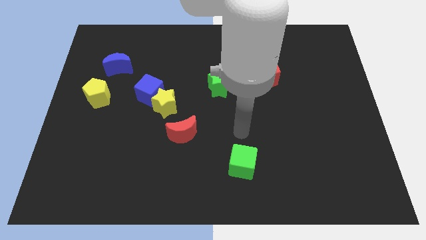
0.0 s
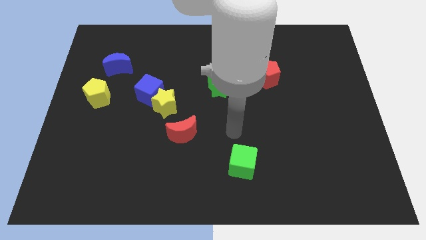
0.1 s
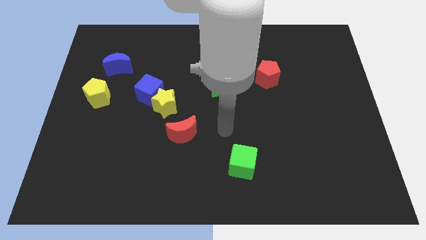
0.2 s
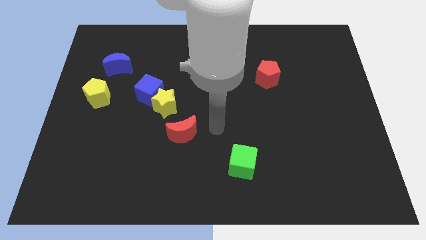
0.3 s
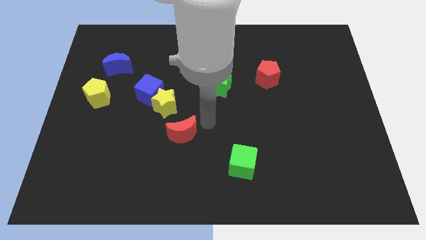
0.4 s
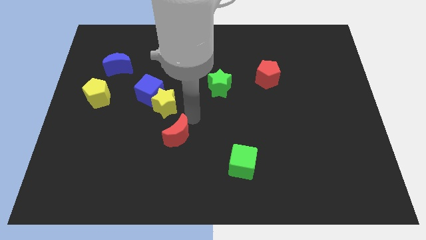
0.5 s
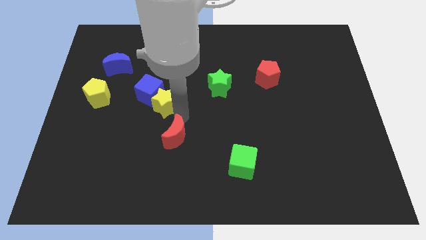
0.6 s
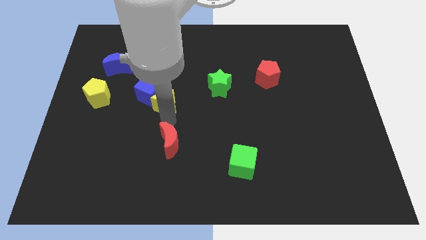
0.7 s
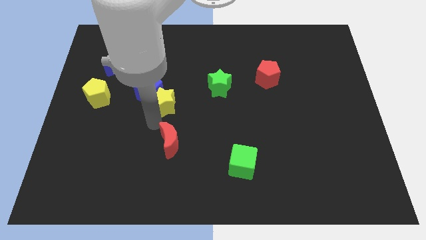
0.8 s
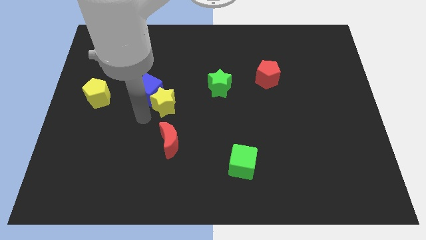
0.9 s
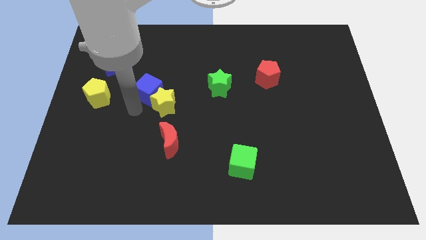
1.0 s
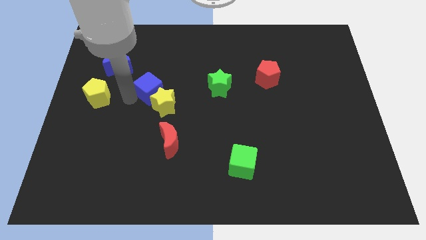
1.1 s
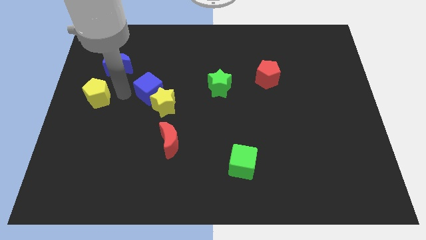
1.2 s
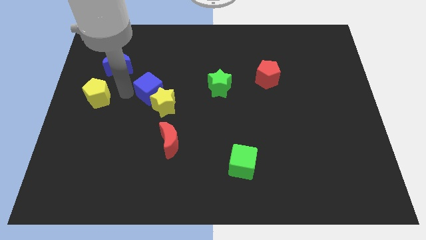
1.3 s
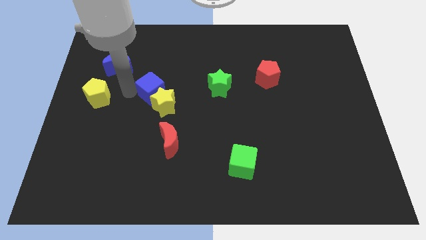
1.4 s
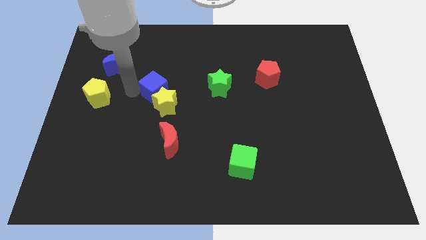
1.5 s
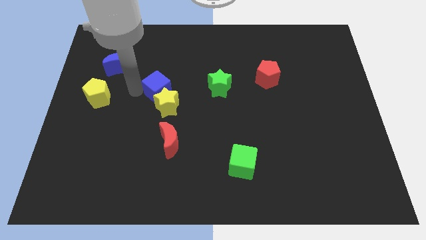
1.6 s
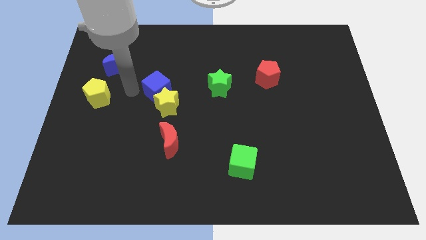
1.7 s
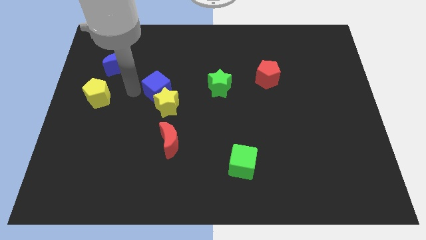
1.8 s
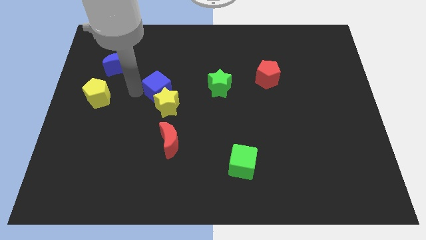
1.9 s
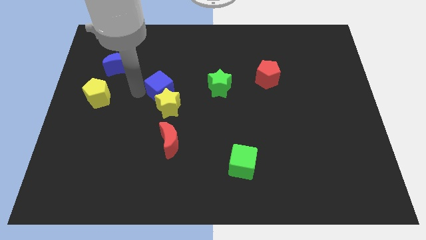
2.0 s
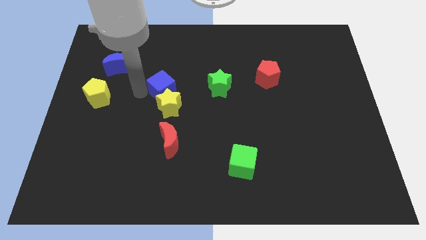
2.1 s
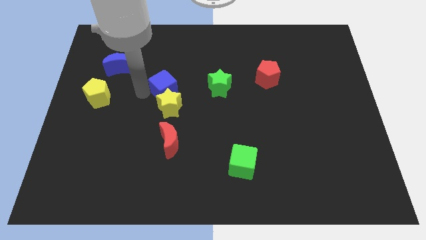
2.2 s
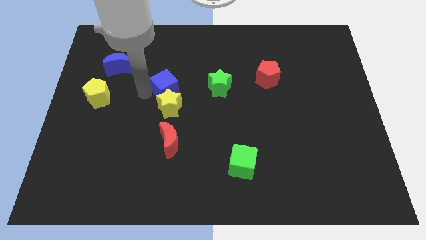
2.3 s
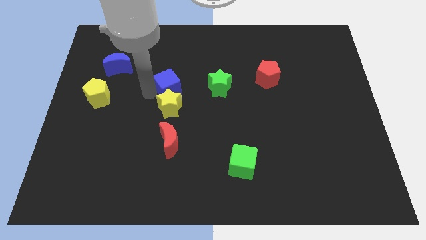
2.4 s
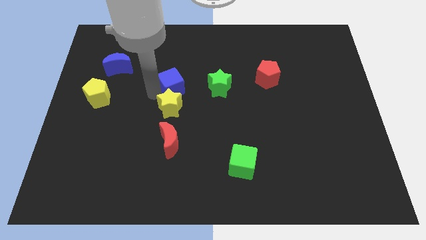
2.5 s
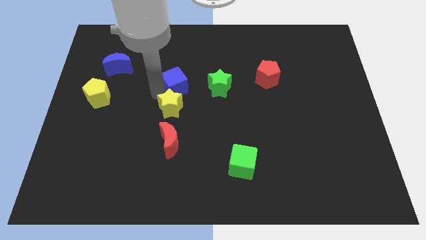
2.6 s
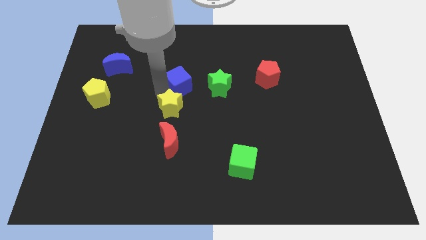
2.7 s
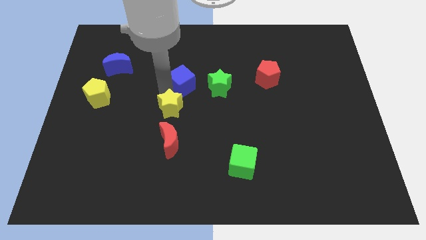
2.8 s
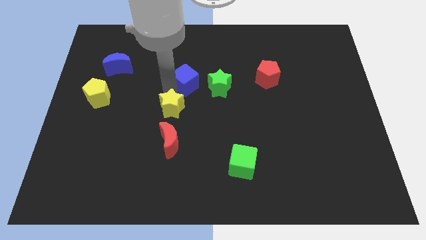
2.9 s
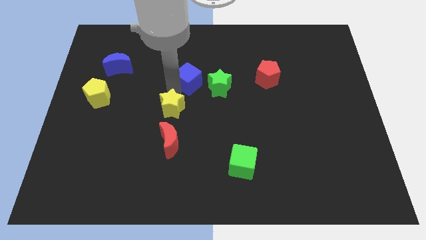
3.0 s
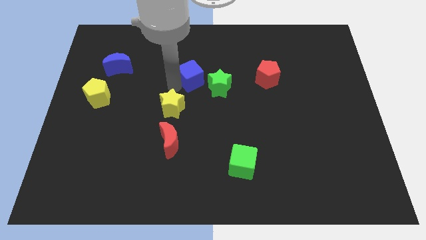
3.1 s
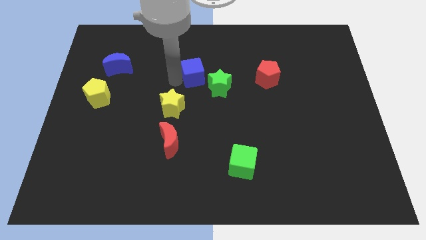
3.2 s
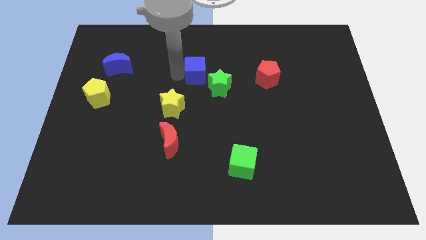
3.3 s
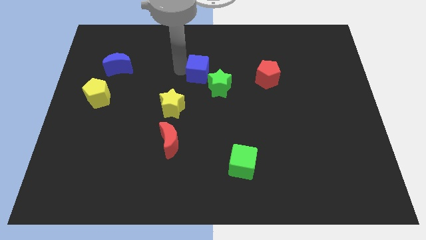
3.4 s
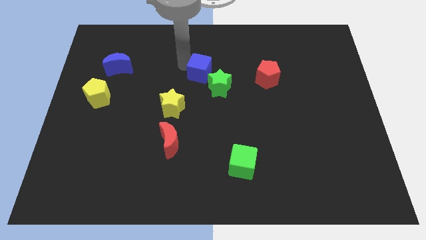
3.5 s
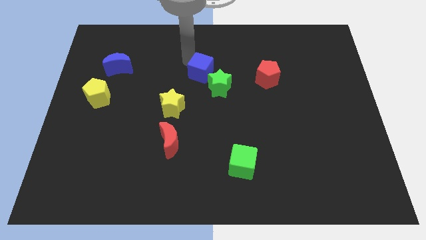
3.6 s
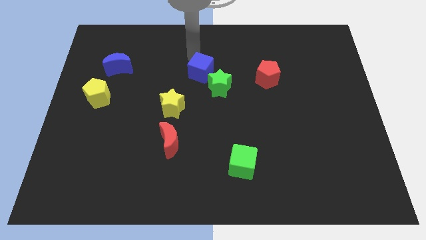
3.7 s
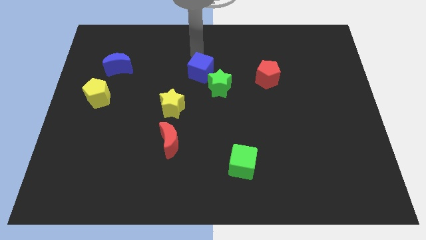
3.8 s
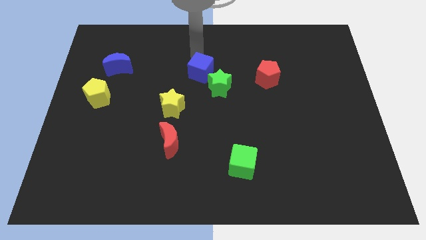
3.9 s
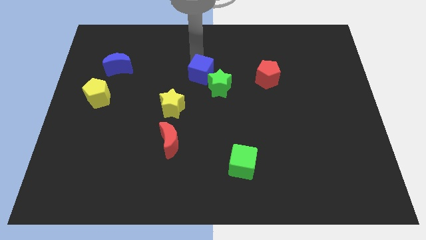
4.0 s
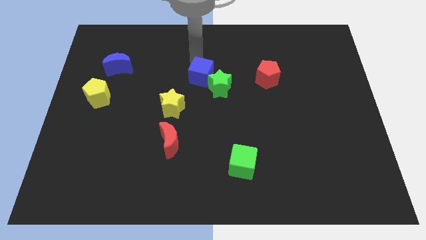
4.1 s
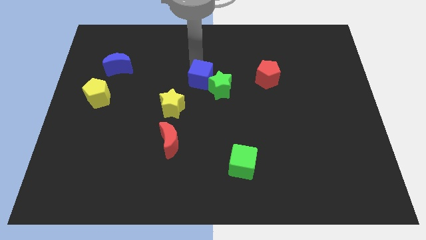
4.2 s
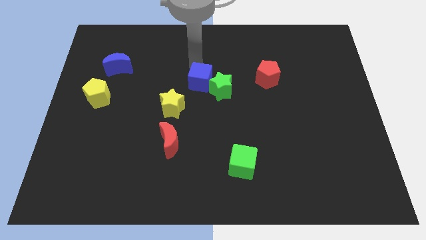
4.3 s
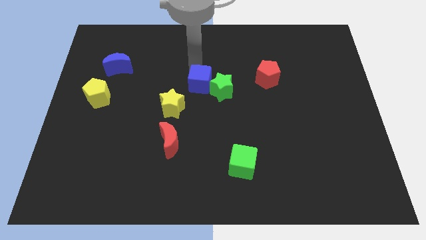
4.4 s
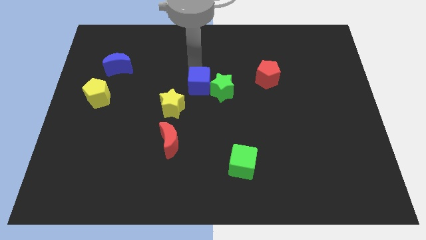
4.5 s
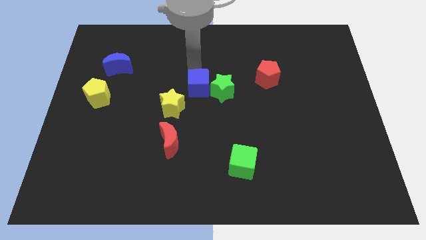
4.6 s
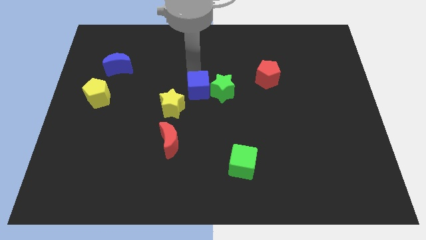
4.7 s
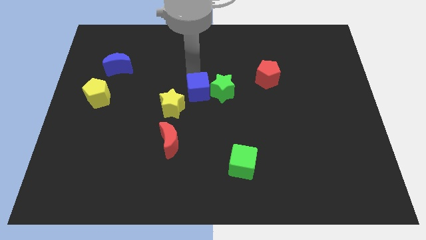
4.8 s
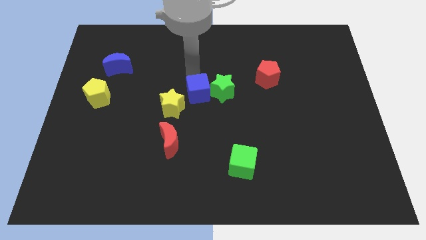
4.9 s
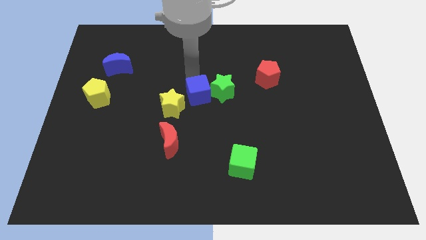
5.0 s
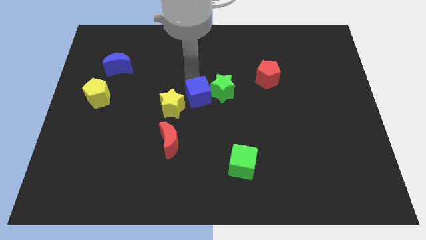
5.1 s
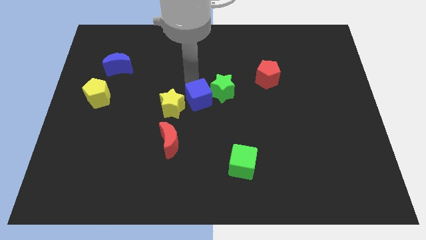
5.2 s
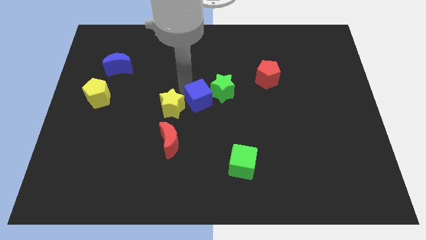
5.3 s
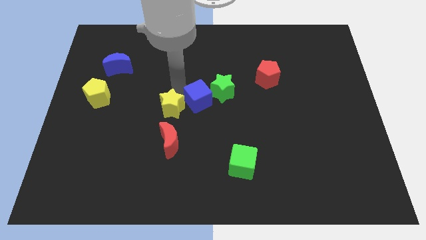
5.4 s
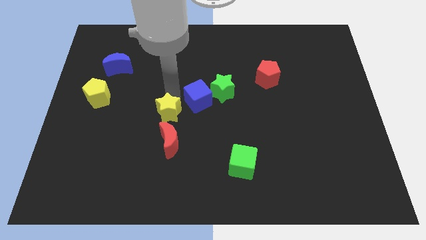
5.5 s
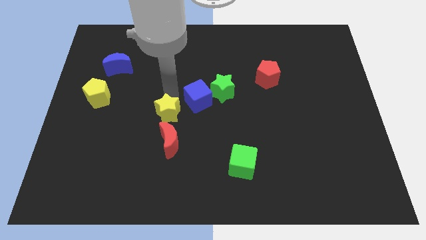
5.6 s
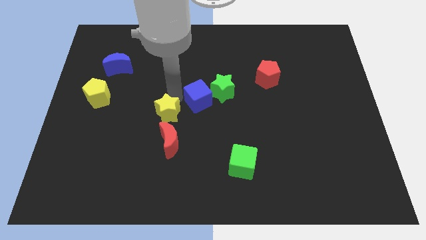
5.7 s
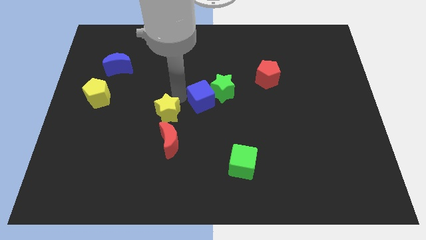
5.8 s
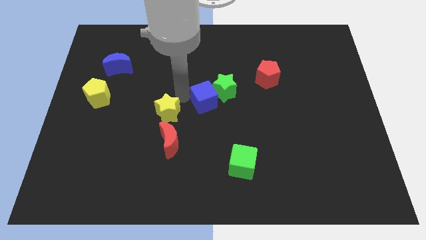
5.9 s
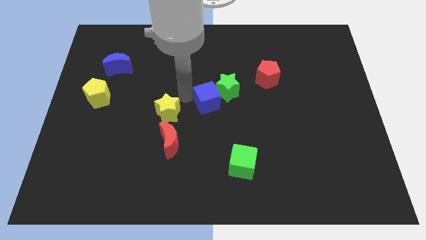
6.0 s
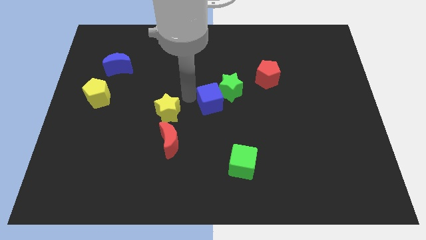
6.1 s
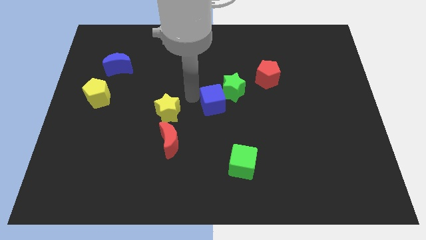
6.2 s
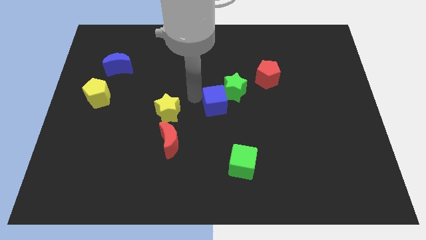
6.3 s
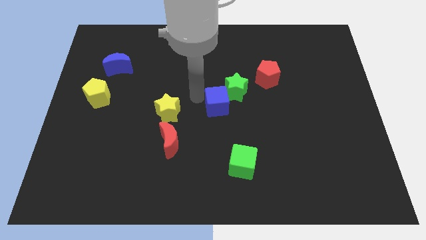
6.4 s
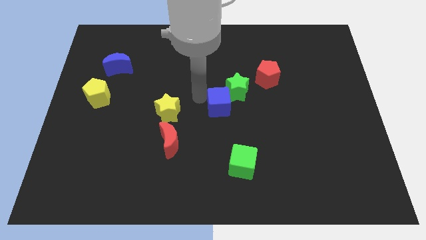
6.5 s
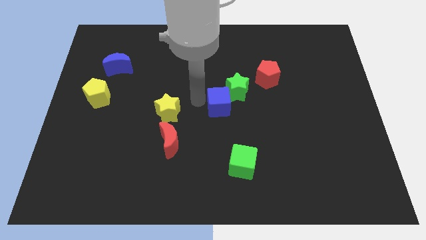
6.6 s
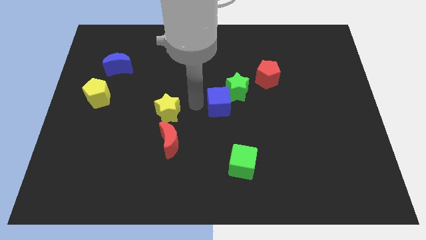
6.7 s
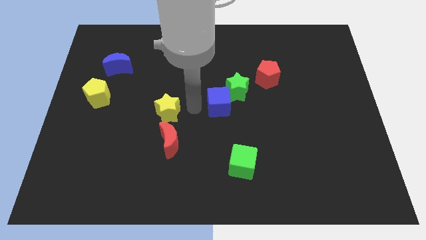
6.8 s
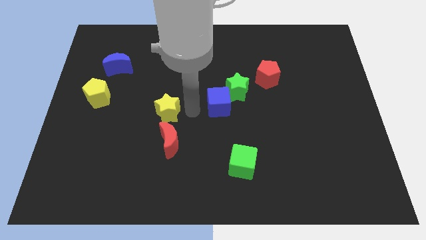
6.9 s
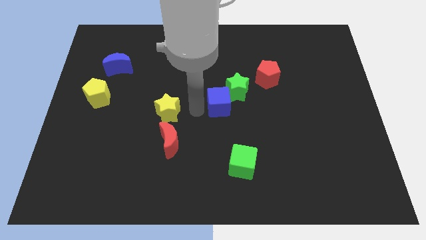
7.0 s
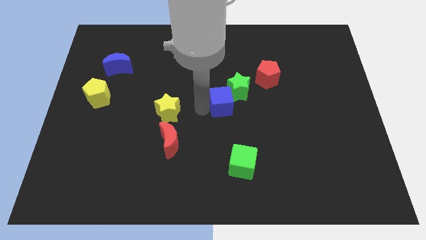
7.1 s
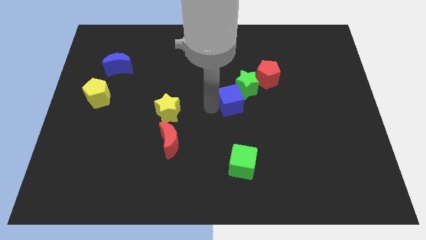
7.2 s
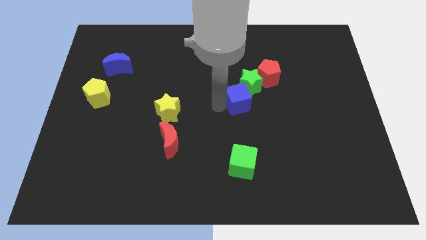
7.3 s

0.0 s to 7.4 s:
move the blue cube to the right

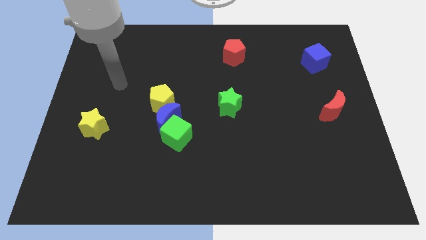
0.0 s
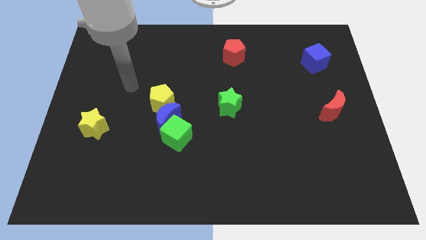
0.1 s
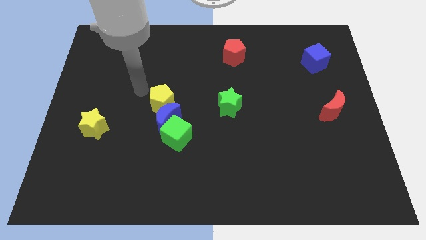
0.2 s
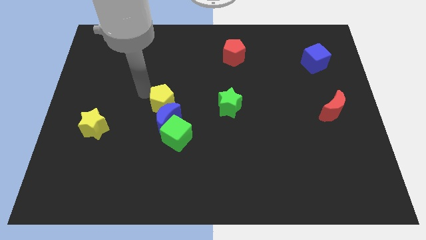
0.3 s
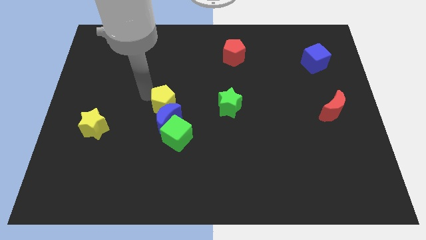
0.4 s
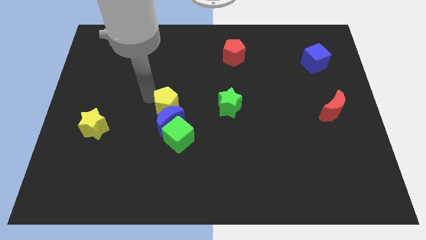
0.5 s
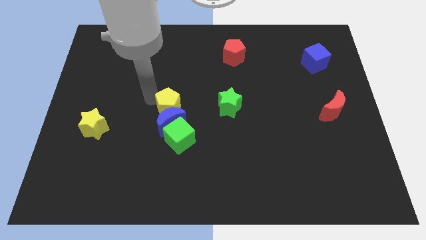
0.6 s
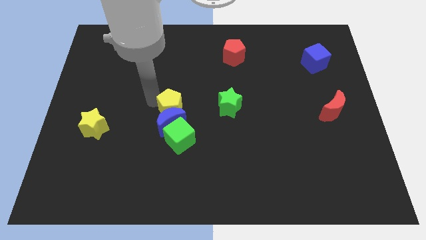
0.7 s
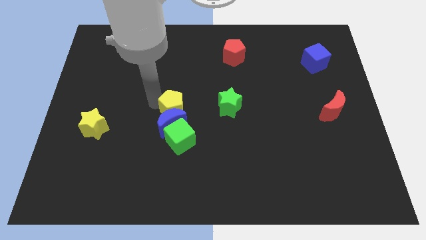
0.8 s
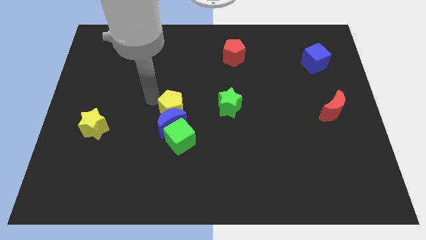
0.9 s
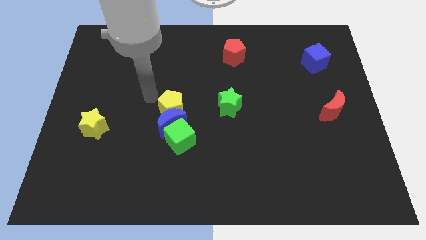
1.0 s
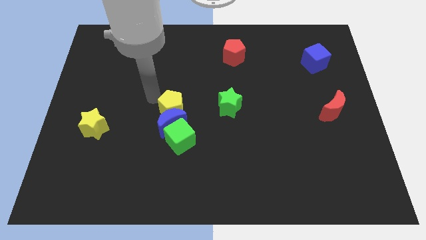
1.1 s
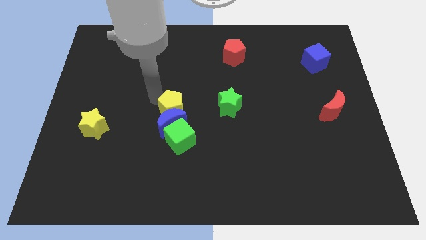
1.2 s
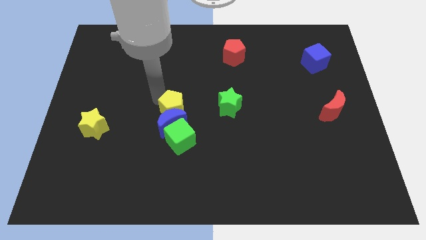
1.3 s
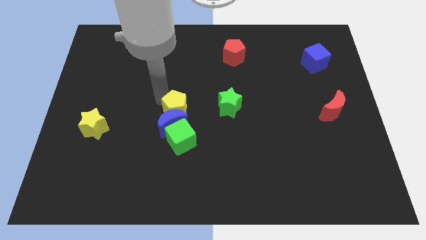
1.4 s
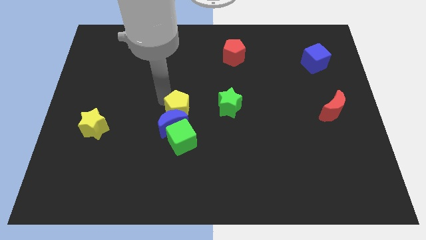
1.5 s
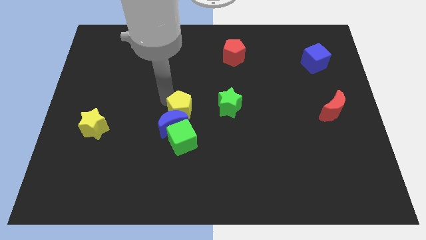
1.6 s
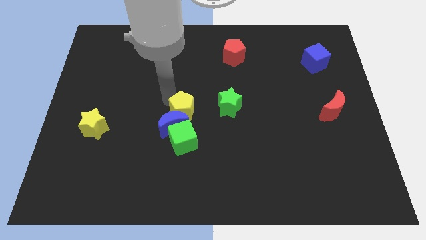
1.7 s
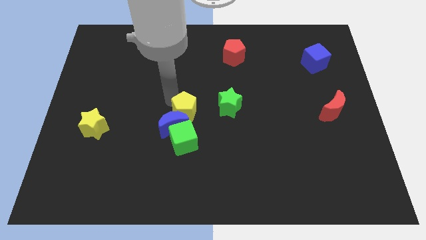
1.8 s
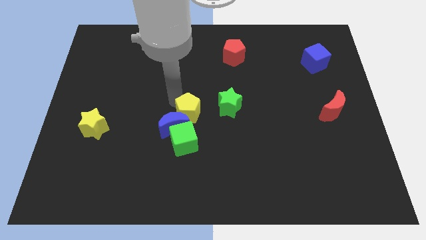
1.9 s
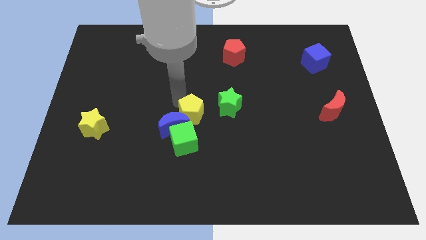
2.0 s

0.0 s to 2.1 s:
slide the yellow pentagon downwards and to the right a little bit
